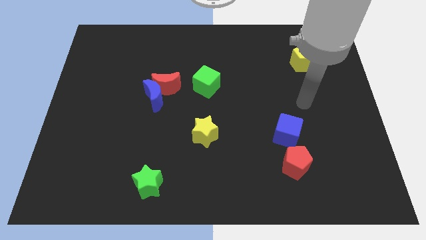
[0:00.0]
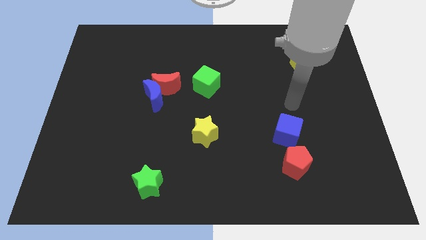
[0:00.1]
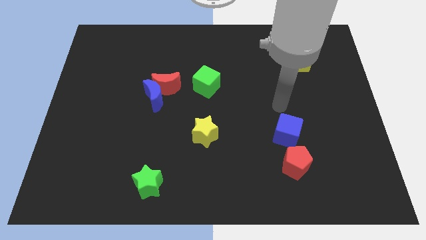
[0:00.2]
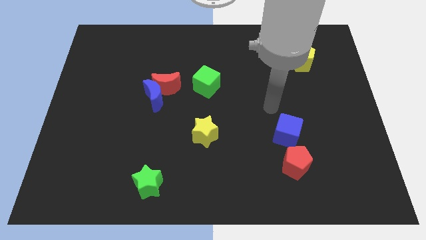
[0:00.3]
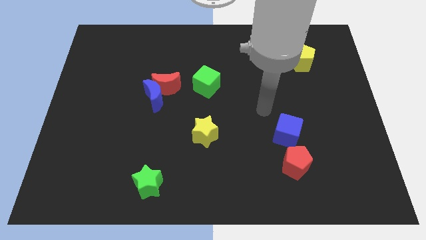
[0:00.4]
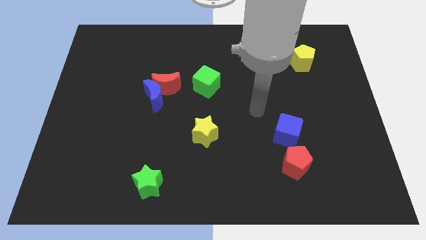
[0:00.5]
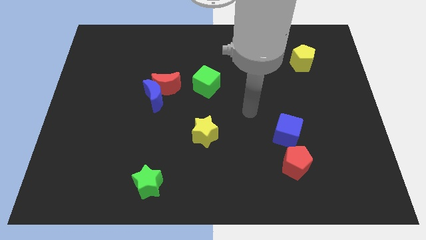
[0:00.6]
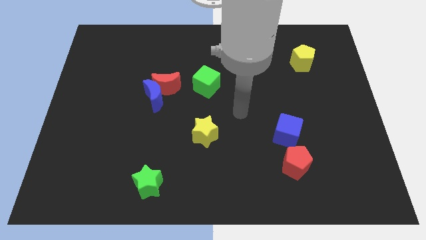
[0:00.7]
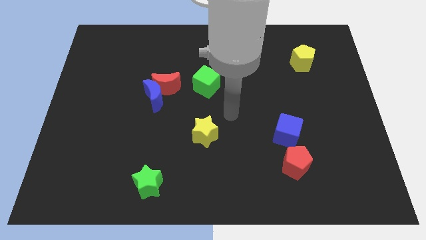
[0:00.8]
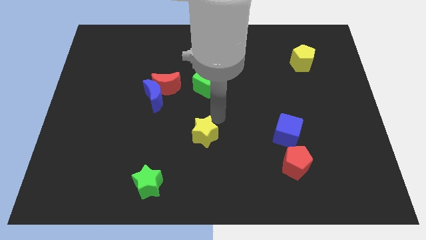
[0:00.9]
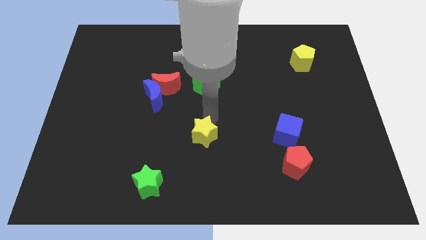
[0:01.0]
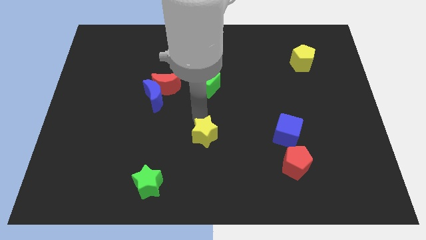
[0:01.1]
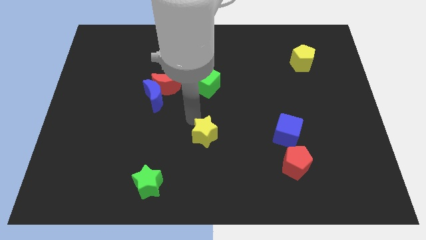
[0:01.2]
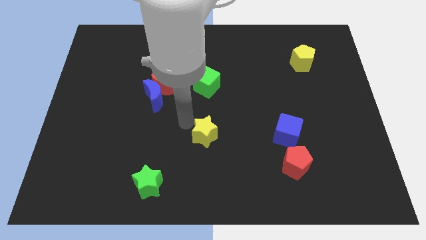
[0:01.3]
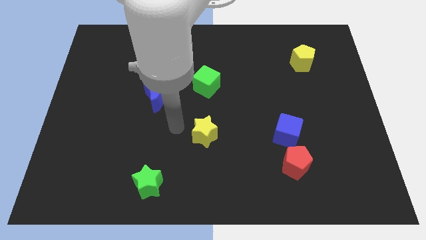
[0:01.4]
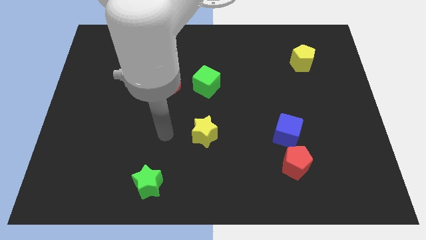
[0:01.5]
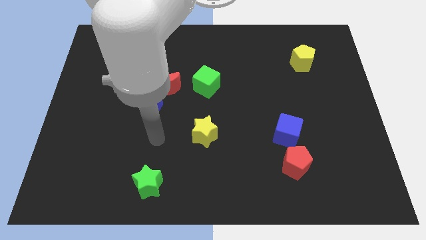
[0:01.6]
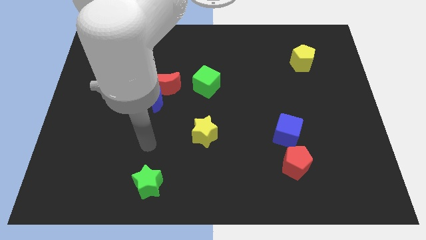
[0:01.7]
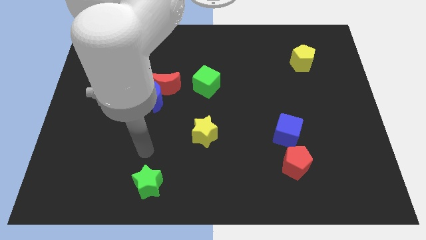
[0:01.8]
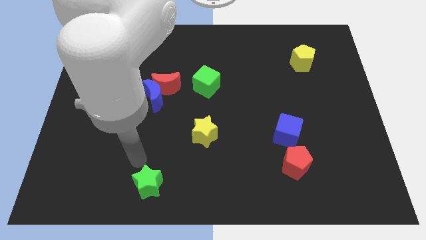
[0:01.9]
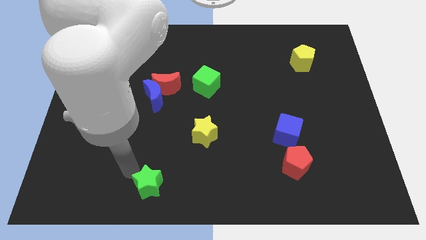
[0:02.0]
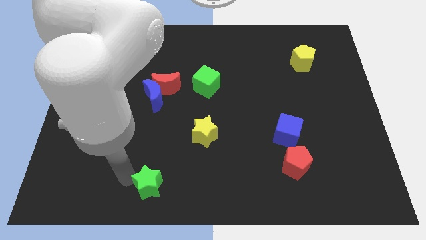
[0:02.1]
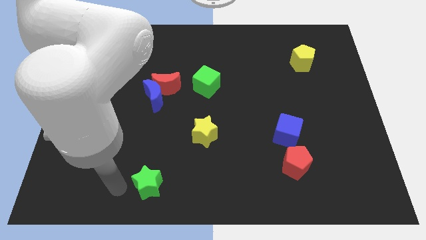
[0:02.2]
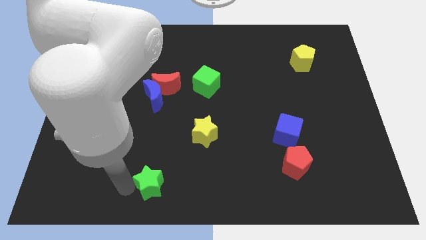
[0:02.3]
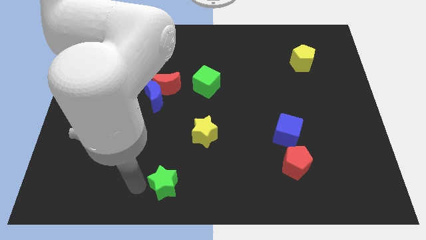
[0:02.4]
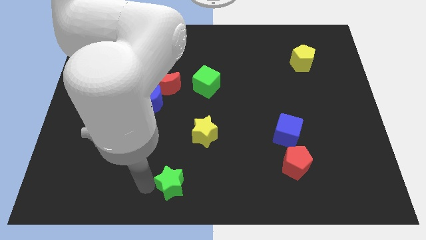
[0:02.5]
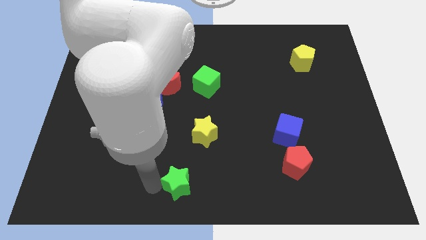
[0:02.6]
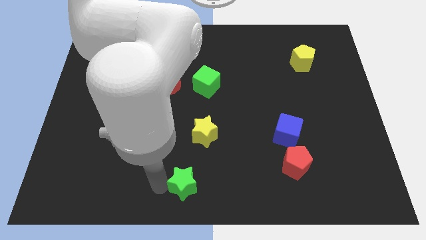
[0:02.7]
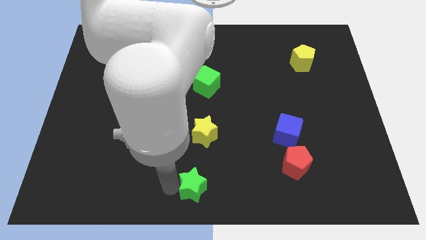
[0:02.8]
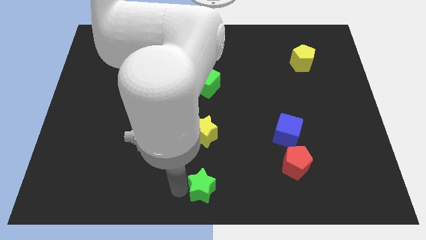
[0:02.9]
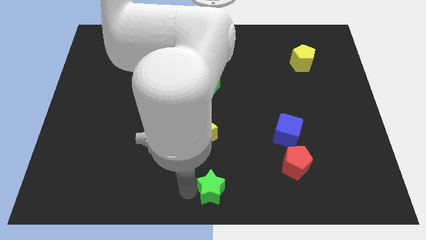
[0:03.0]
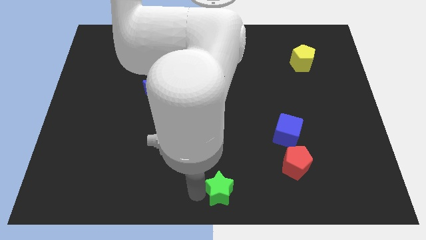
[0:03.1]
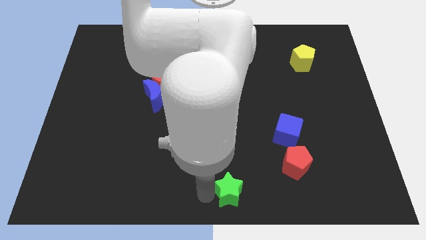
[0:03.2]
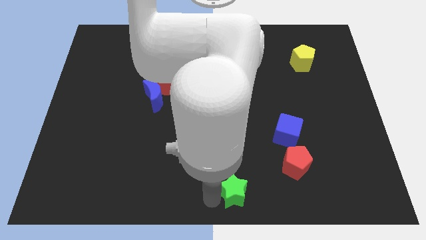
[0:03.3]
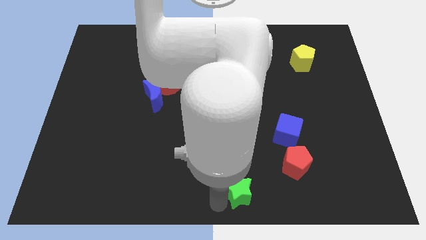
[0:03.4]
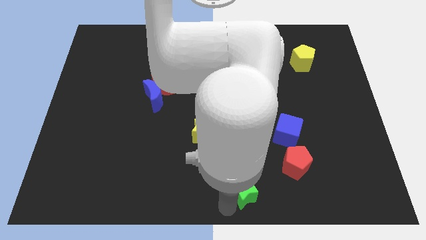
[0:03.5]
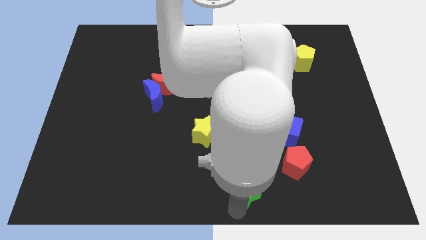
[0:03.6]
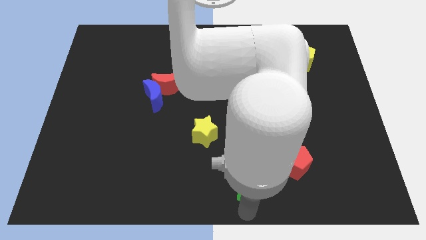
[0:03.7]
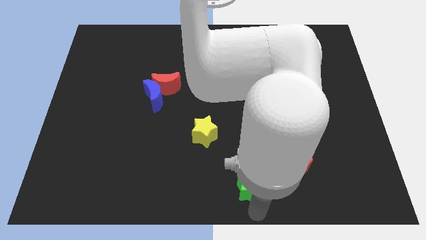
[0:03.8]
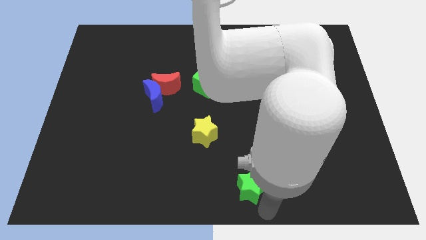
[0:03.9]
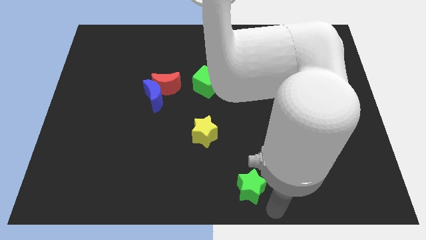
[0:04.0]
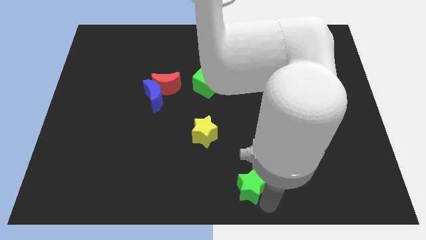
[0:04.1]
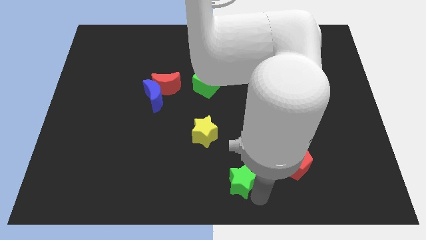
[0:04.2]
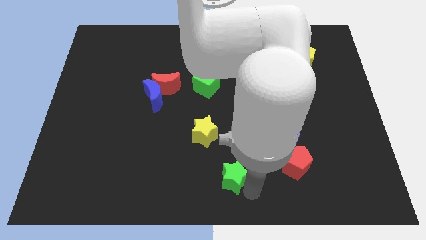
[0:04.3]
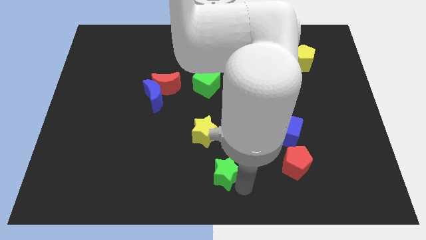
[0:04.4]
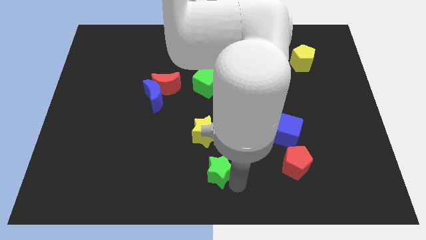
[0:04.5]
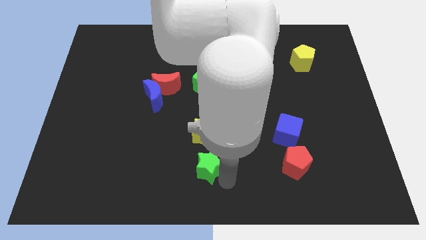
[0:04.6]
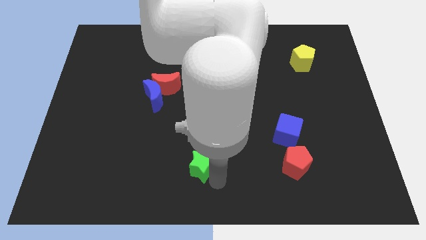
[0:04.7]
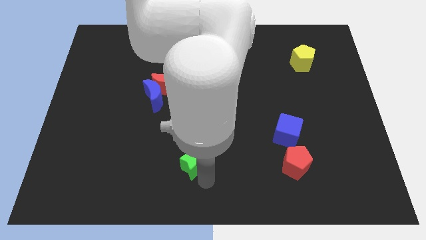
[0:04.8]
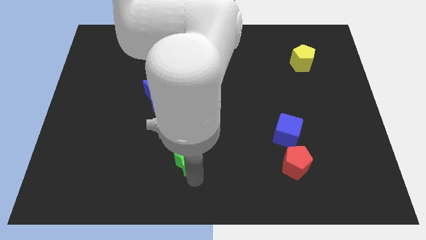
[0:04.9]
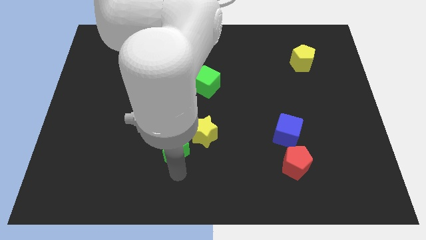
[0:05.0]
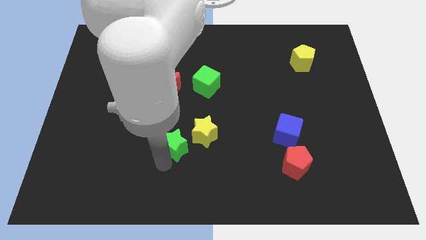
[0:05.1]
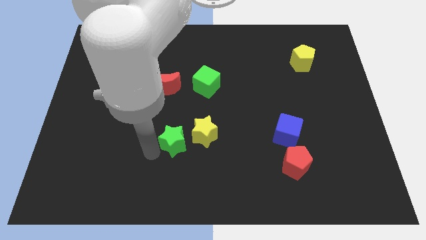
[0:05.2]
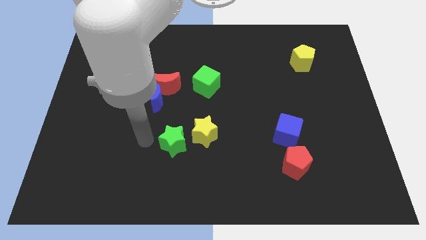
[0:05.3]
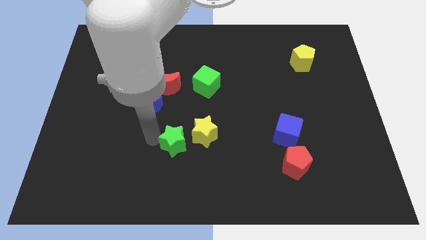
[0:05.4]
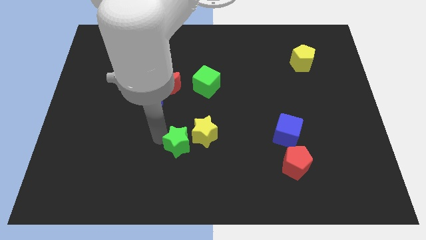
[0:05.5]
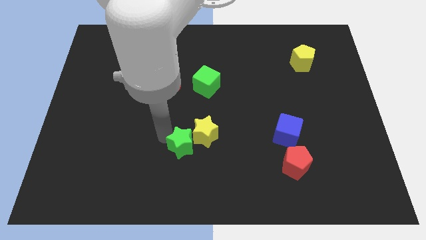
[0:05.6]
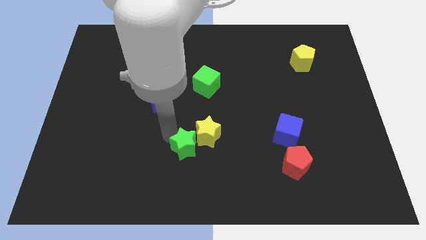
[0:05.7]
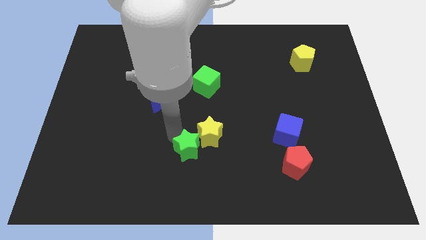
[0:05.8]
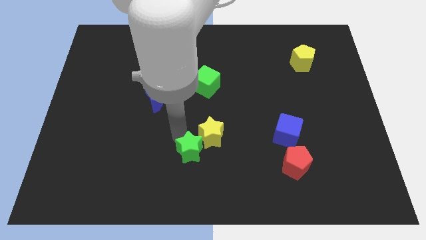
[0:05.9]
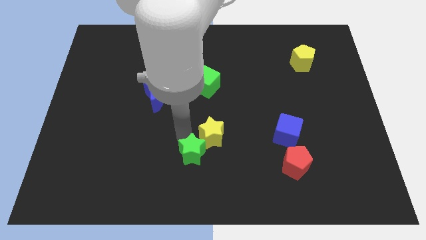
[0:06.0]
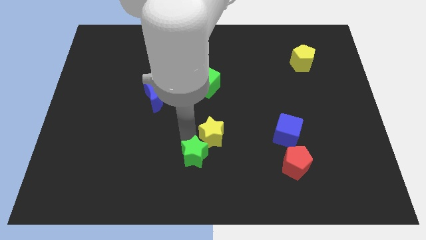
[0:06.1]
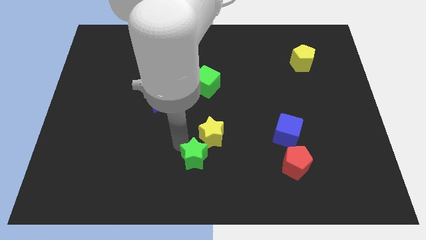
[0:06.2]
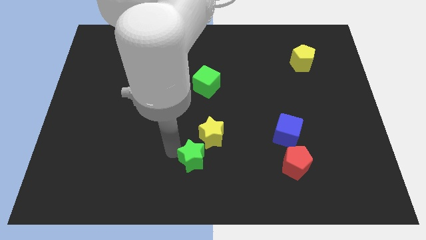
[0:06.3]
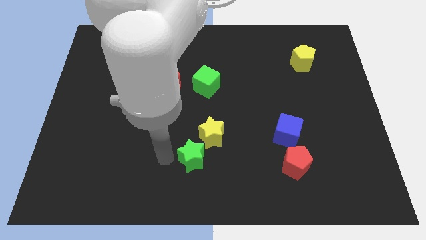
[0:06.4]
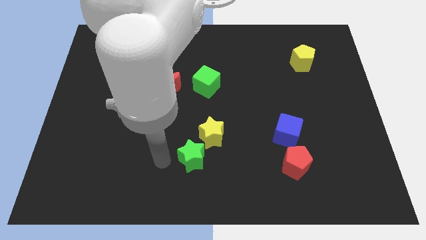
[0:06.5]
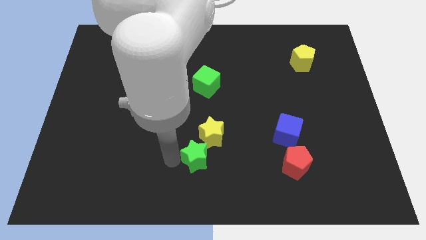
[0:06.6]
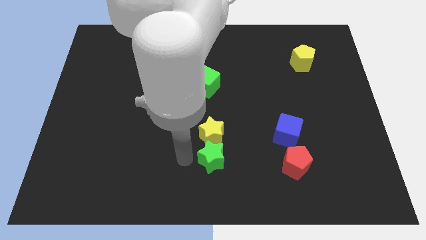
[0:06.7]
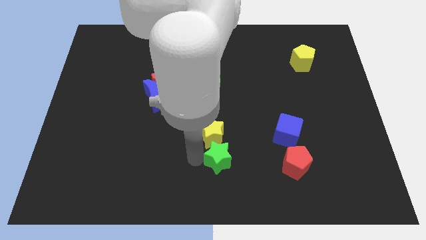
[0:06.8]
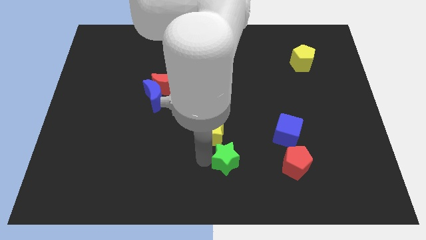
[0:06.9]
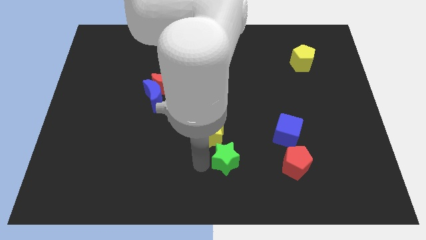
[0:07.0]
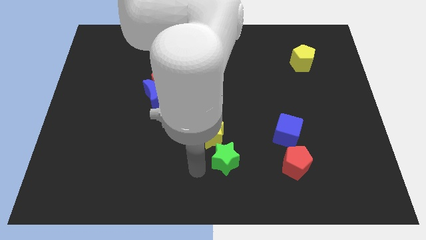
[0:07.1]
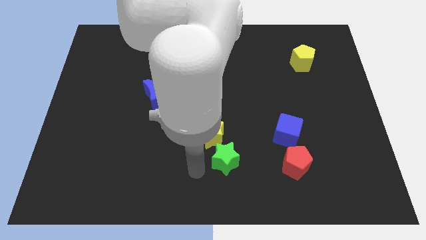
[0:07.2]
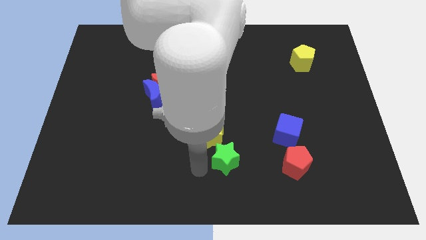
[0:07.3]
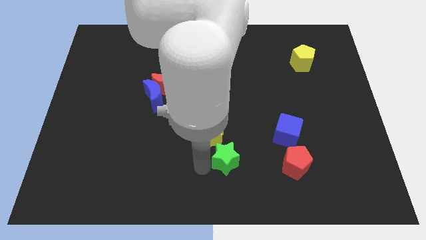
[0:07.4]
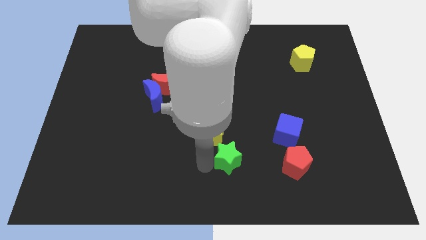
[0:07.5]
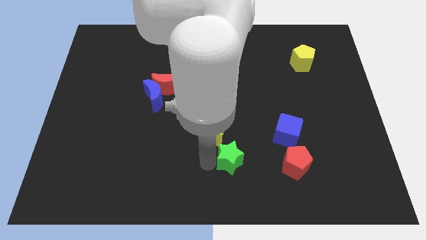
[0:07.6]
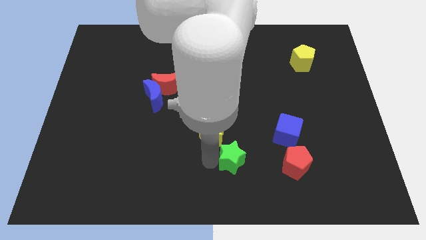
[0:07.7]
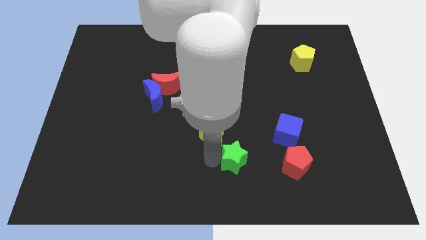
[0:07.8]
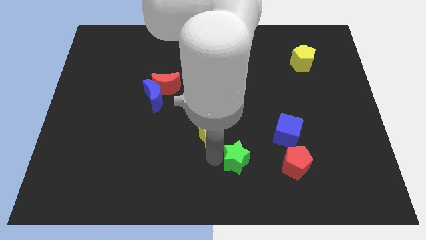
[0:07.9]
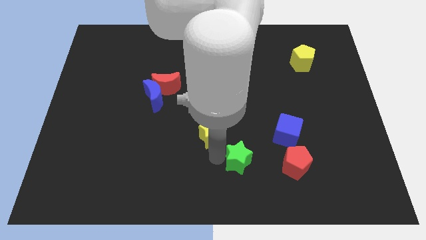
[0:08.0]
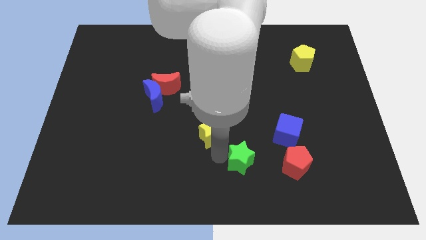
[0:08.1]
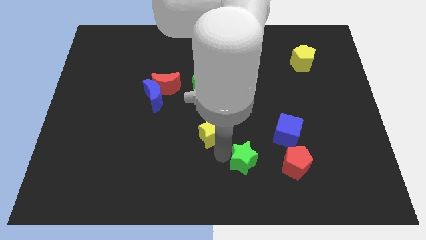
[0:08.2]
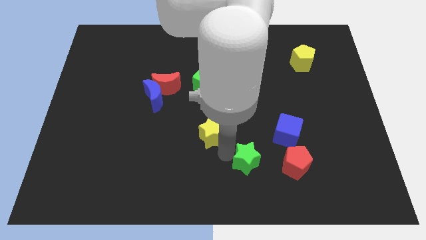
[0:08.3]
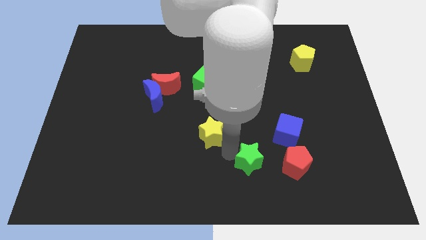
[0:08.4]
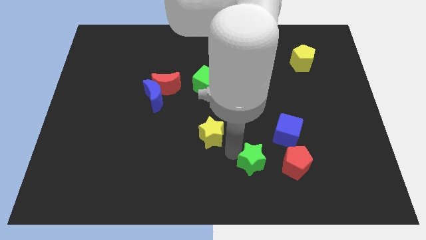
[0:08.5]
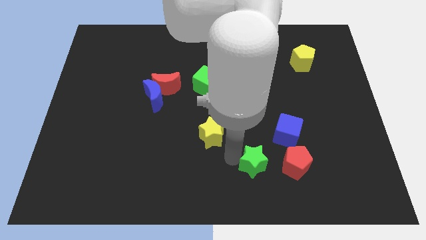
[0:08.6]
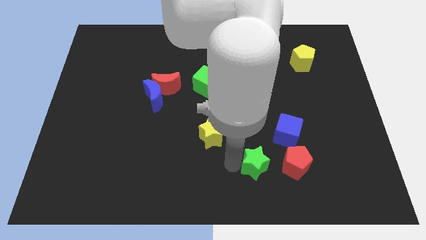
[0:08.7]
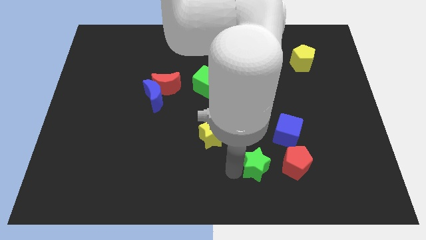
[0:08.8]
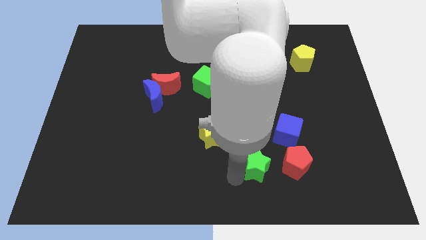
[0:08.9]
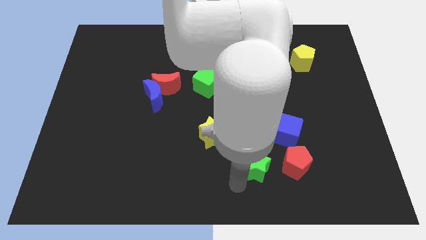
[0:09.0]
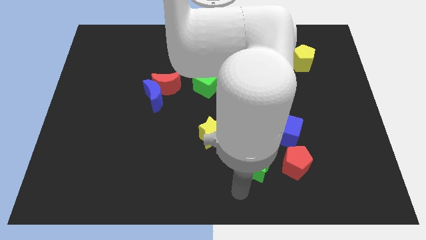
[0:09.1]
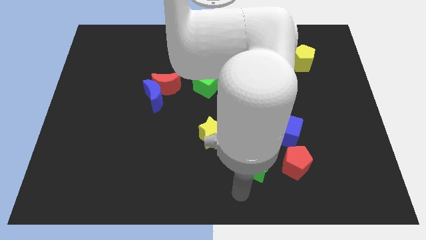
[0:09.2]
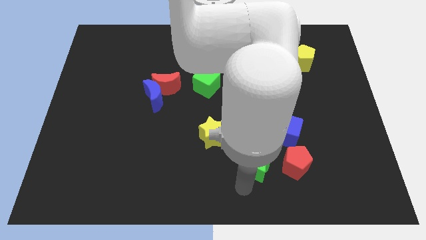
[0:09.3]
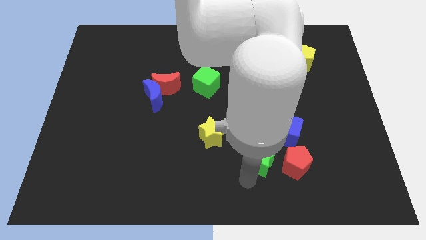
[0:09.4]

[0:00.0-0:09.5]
move the green star to the top left side of the red pentagon
